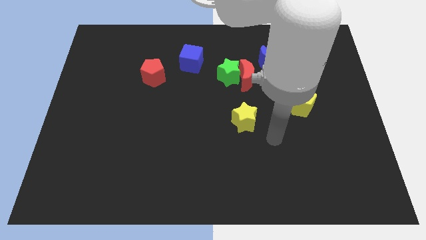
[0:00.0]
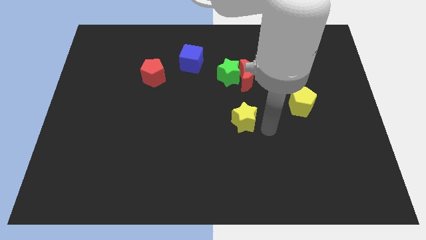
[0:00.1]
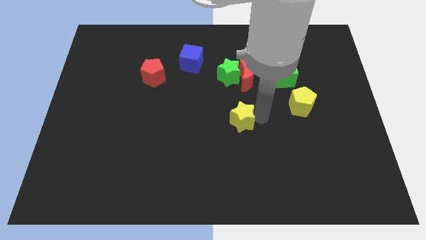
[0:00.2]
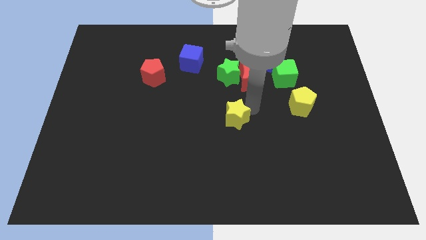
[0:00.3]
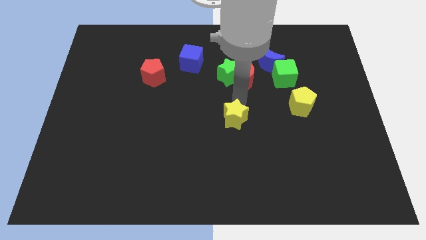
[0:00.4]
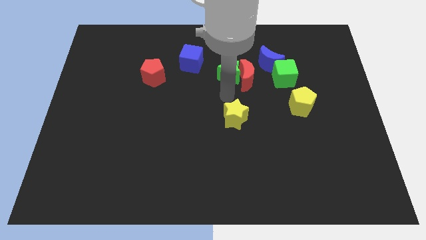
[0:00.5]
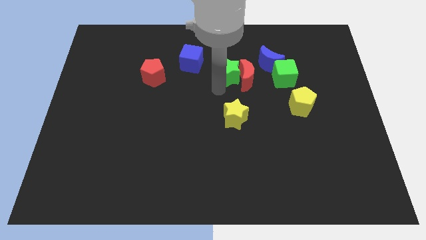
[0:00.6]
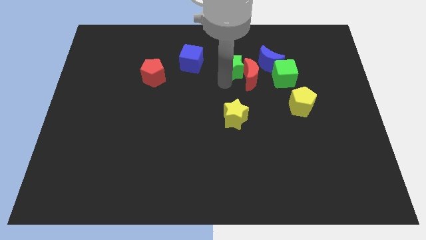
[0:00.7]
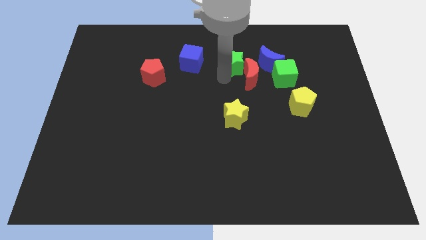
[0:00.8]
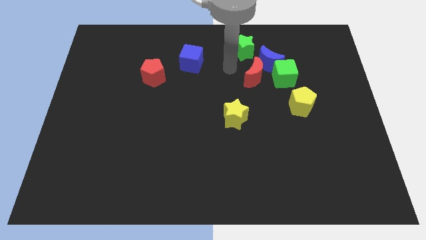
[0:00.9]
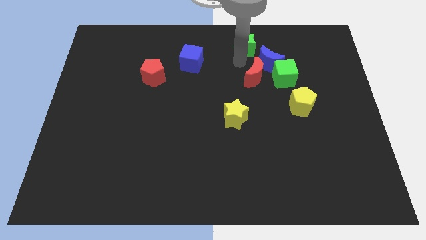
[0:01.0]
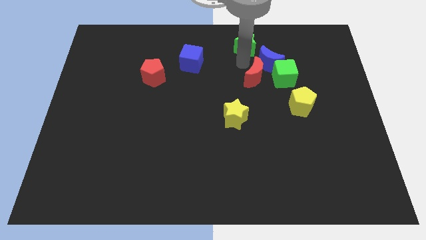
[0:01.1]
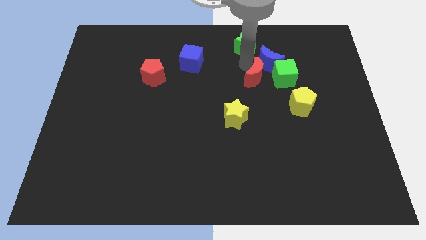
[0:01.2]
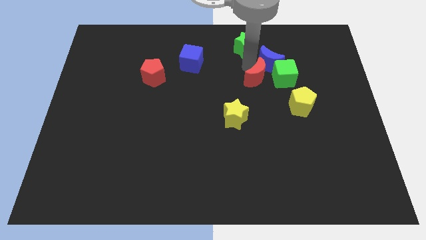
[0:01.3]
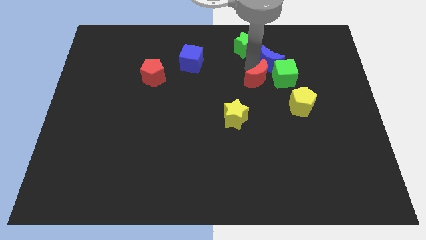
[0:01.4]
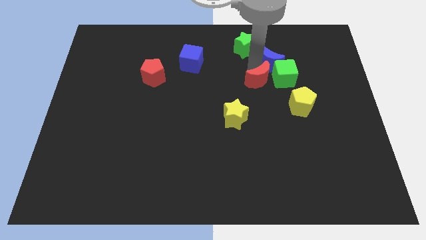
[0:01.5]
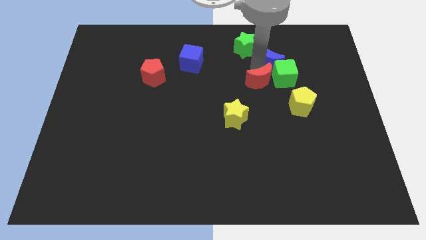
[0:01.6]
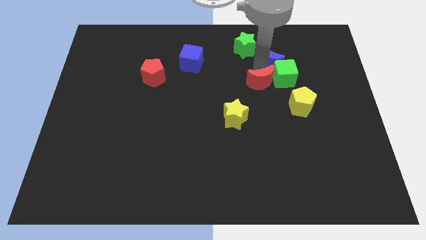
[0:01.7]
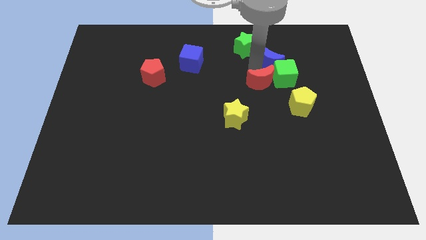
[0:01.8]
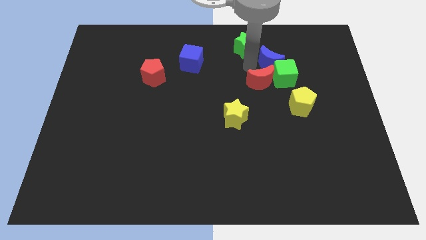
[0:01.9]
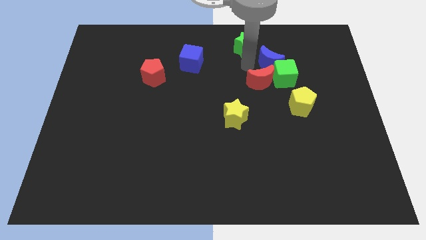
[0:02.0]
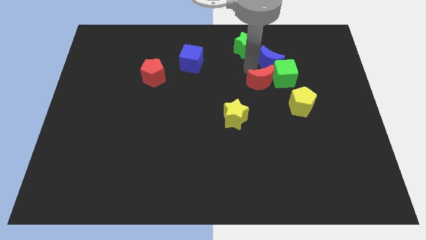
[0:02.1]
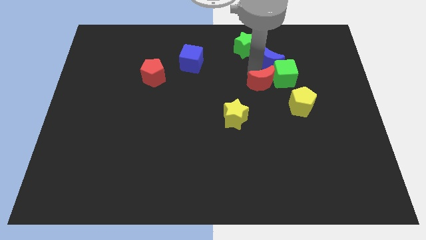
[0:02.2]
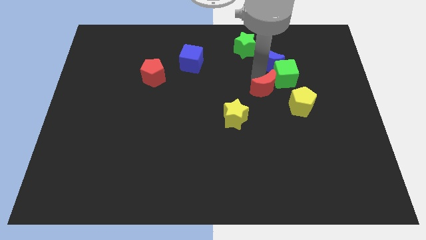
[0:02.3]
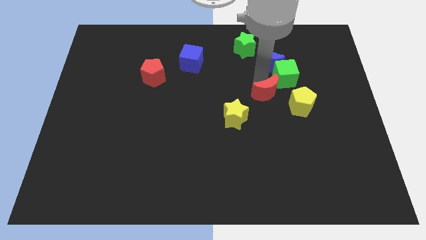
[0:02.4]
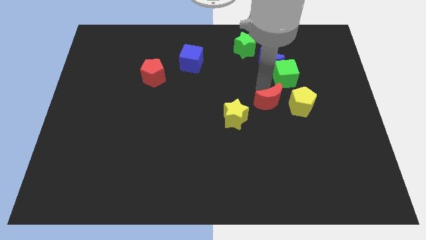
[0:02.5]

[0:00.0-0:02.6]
move the red moon slightly down and right

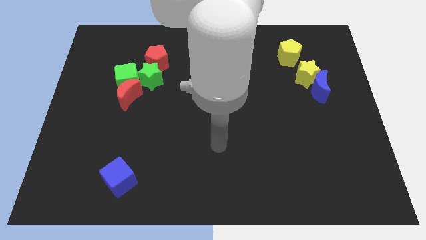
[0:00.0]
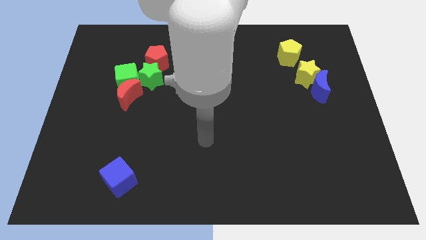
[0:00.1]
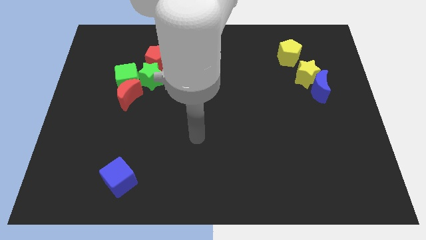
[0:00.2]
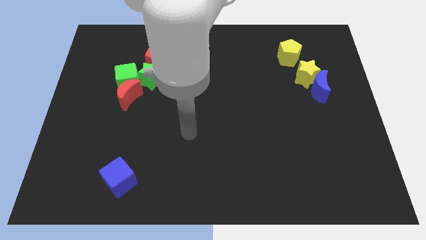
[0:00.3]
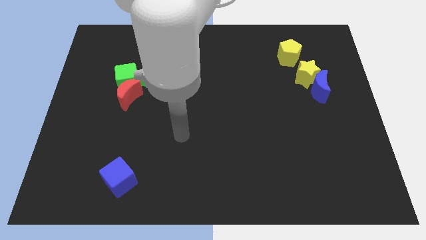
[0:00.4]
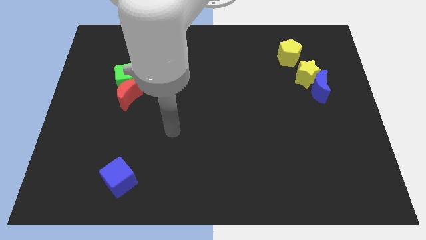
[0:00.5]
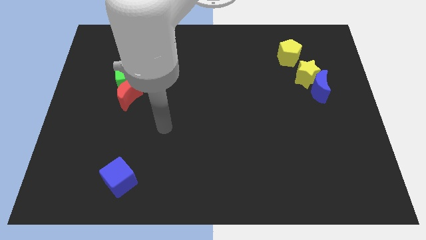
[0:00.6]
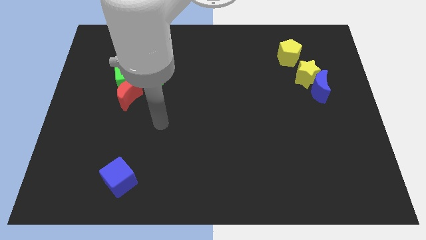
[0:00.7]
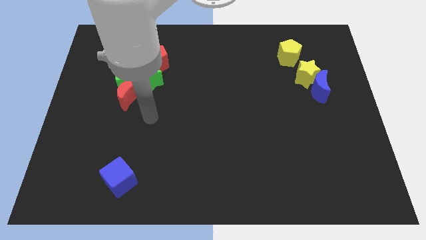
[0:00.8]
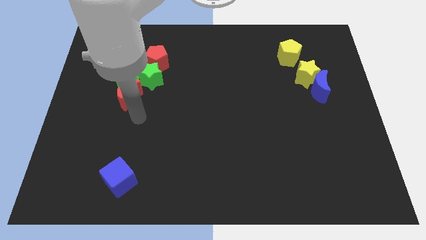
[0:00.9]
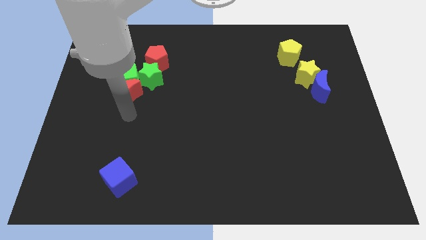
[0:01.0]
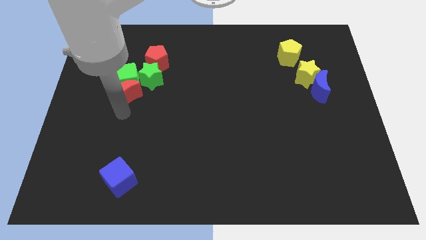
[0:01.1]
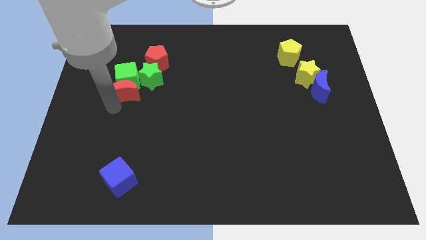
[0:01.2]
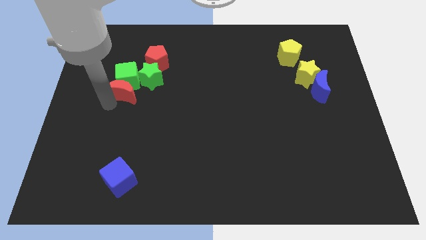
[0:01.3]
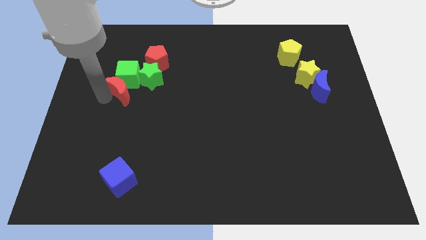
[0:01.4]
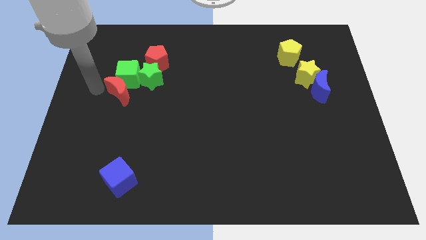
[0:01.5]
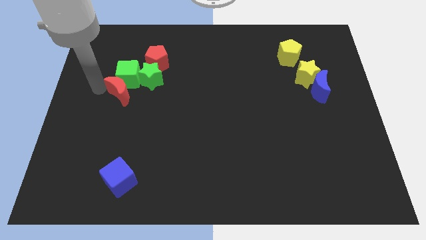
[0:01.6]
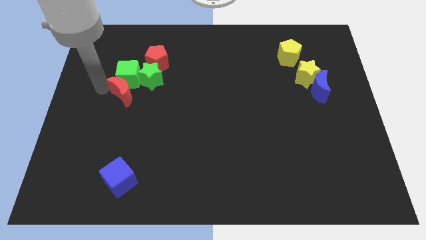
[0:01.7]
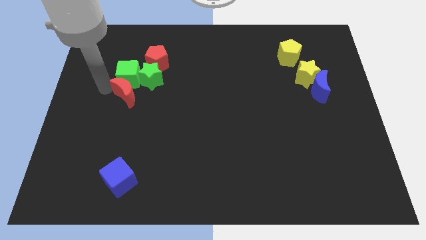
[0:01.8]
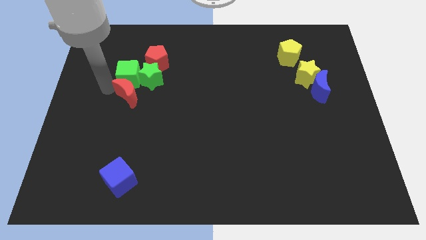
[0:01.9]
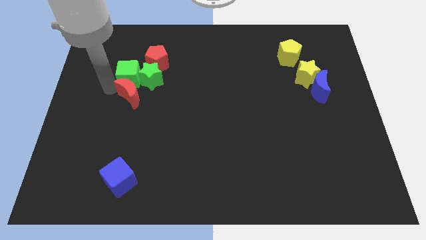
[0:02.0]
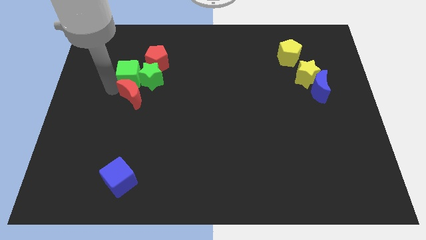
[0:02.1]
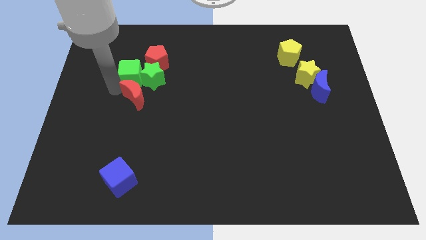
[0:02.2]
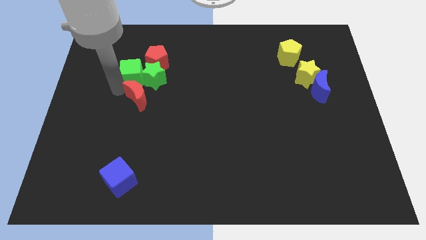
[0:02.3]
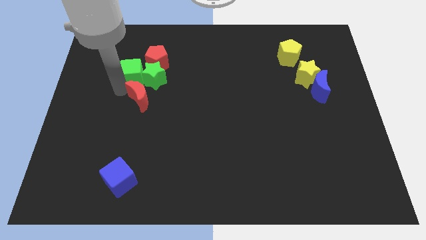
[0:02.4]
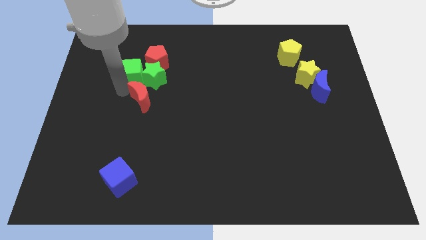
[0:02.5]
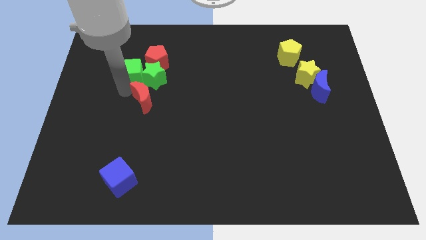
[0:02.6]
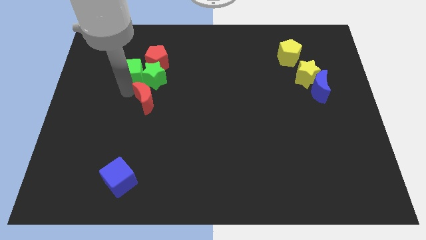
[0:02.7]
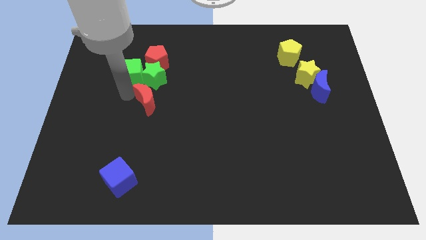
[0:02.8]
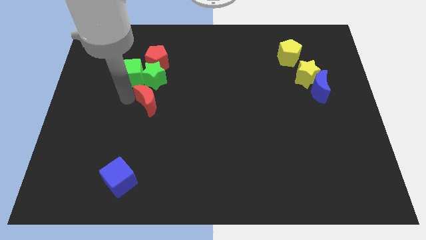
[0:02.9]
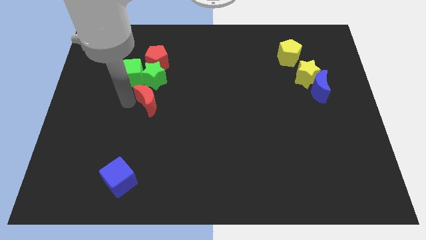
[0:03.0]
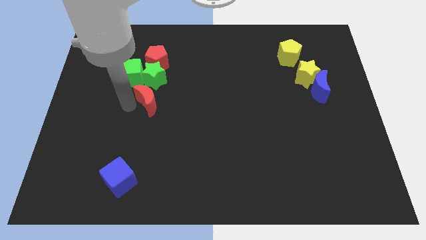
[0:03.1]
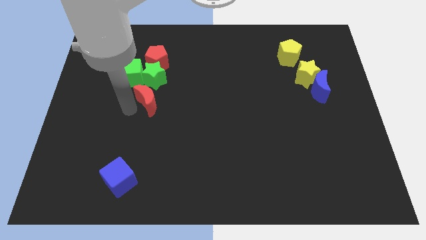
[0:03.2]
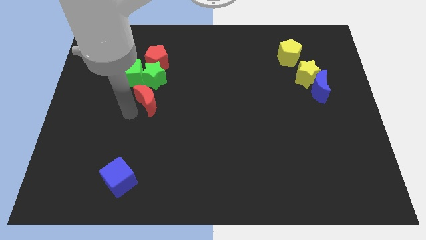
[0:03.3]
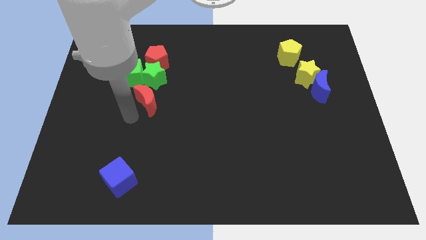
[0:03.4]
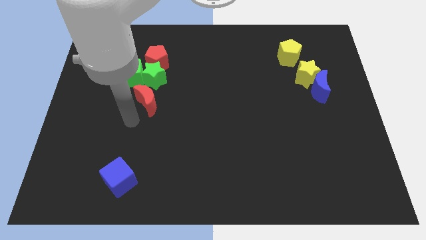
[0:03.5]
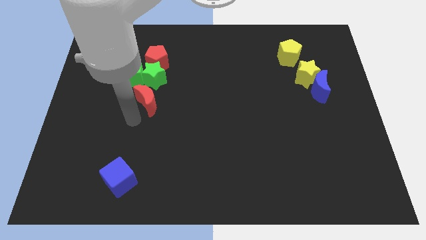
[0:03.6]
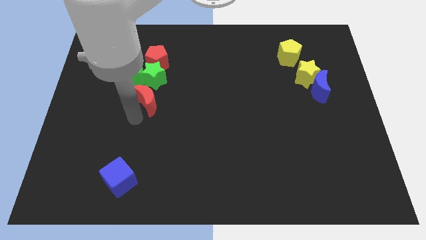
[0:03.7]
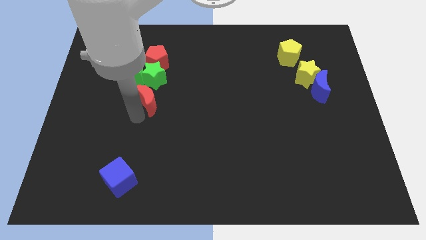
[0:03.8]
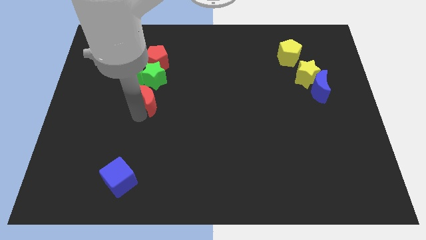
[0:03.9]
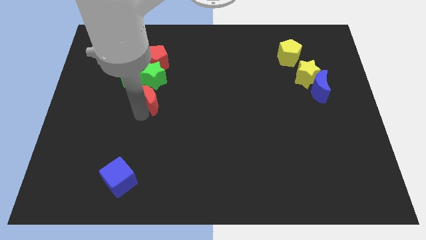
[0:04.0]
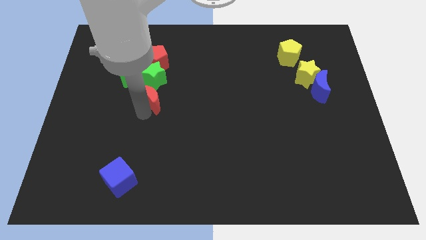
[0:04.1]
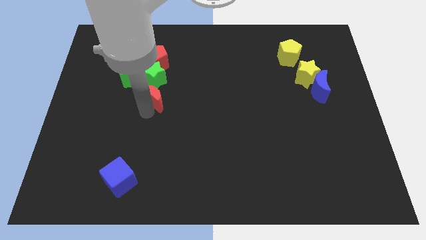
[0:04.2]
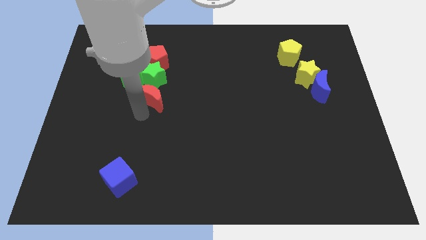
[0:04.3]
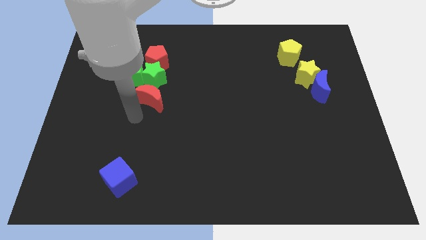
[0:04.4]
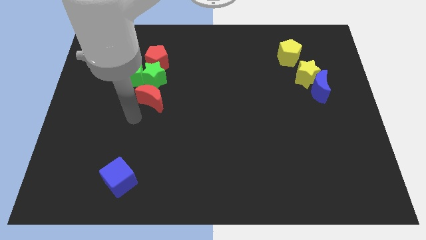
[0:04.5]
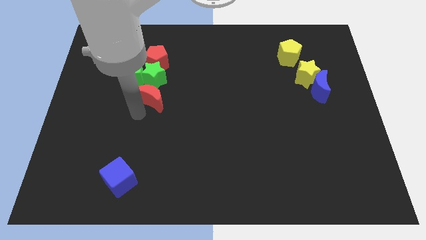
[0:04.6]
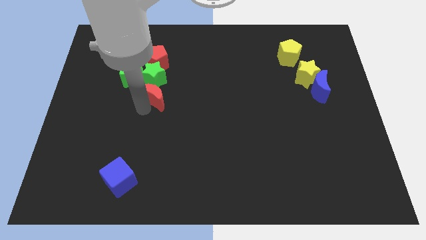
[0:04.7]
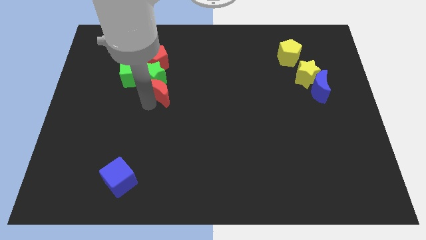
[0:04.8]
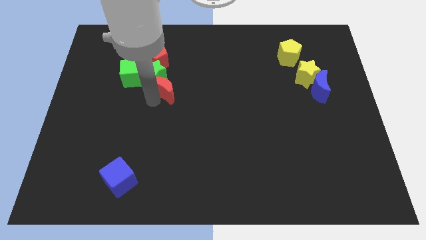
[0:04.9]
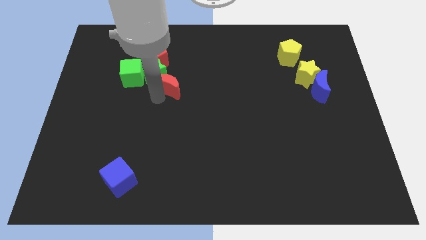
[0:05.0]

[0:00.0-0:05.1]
slightly move the red moon upwards and to the right

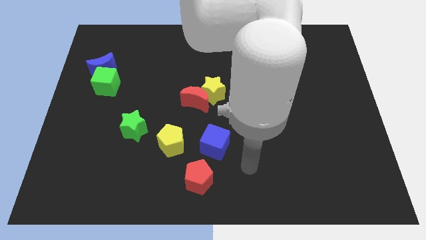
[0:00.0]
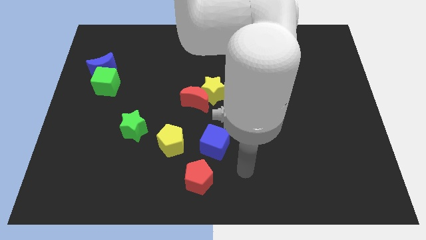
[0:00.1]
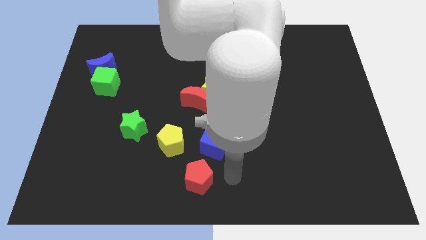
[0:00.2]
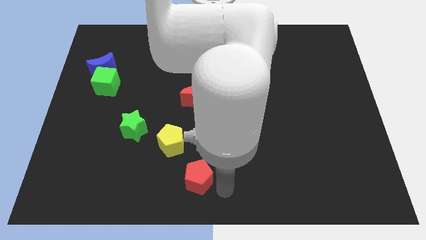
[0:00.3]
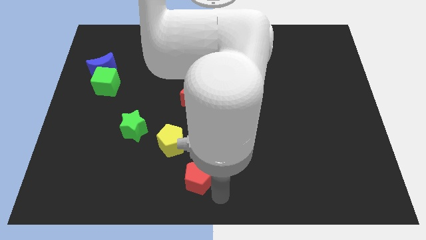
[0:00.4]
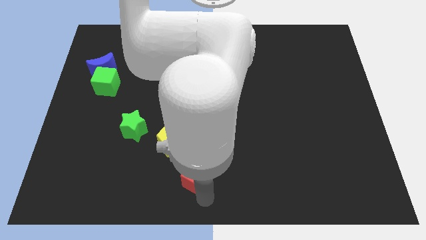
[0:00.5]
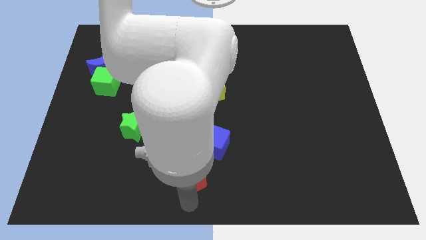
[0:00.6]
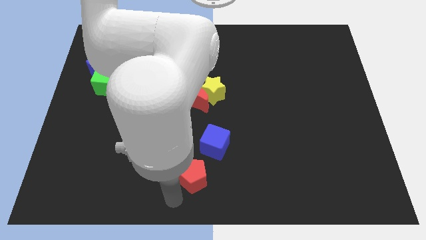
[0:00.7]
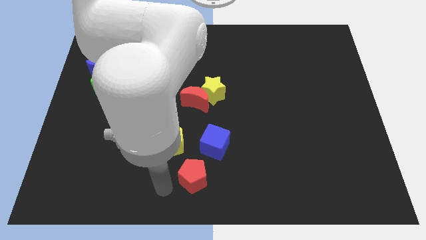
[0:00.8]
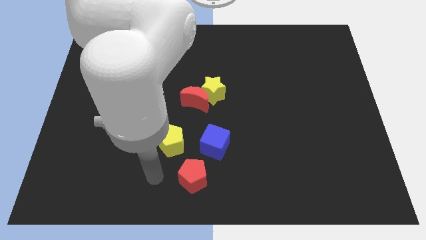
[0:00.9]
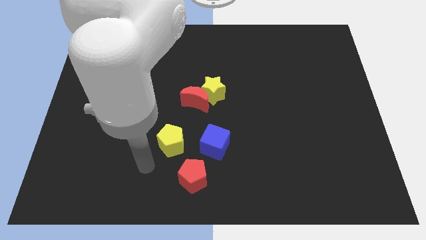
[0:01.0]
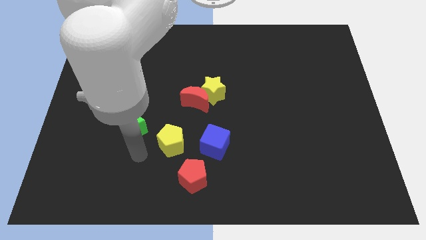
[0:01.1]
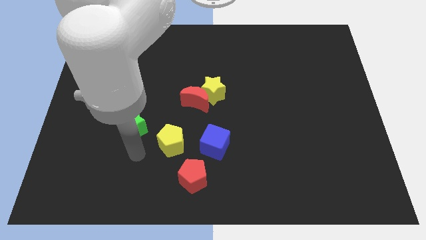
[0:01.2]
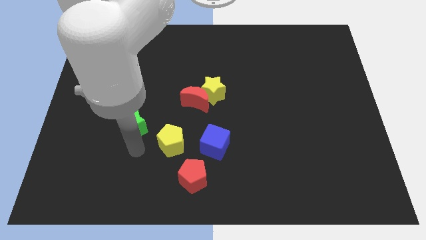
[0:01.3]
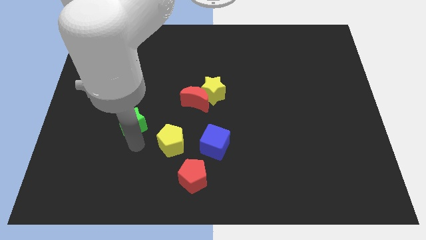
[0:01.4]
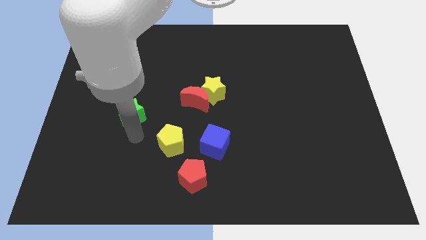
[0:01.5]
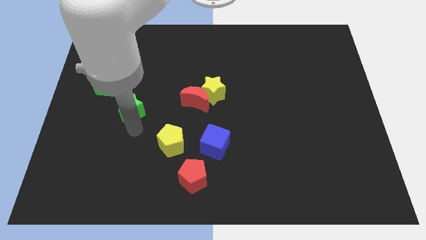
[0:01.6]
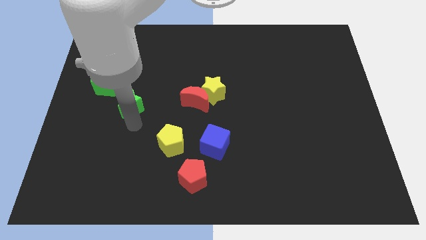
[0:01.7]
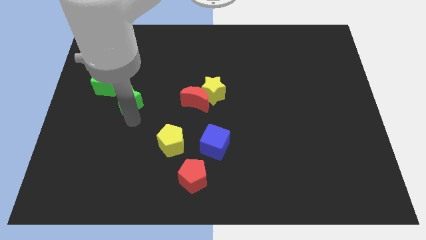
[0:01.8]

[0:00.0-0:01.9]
slightly move the green star up
